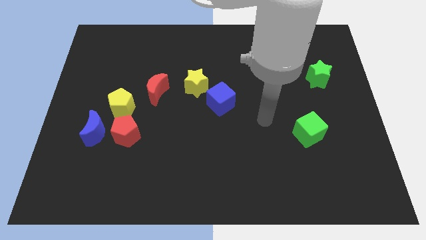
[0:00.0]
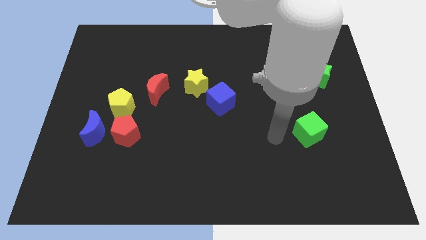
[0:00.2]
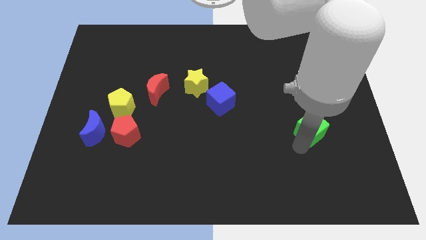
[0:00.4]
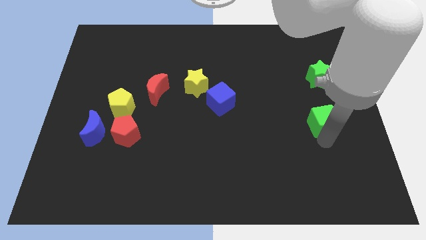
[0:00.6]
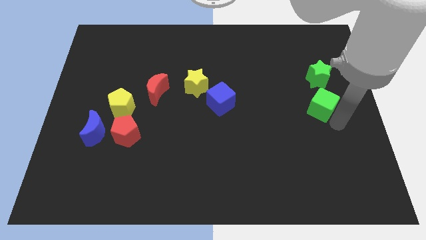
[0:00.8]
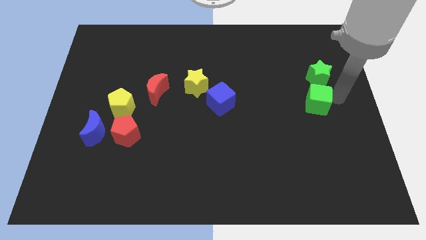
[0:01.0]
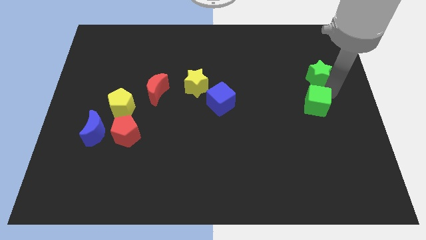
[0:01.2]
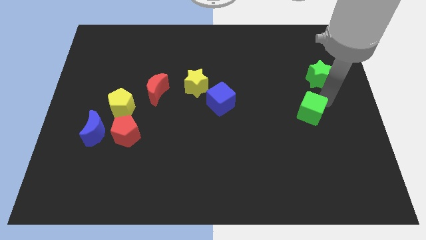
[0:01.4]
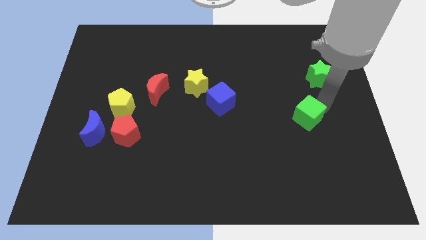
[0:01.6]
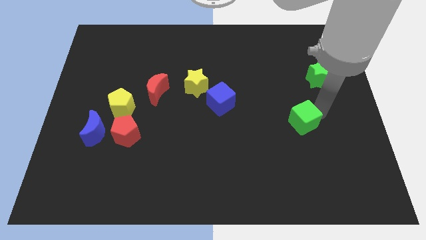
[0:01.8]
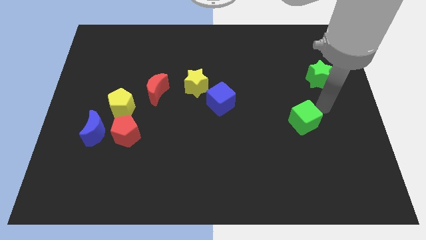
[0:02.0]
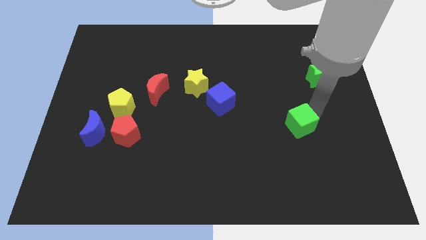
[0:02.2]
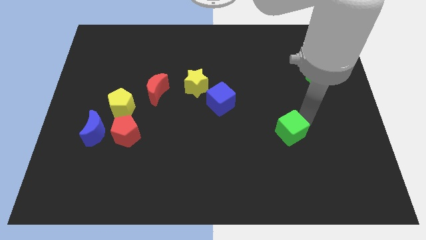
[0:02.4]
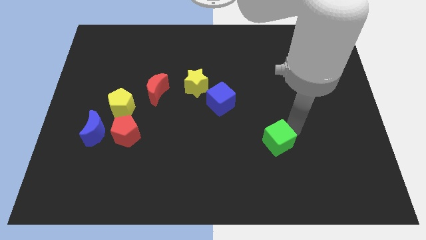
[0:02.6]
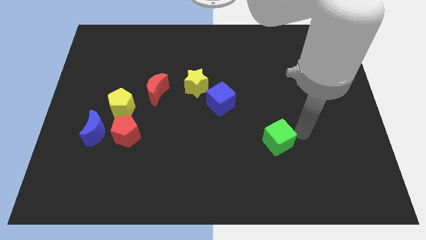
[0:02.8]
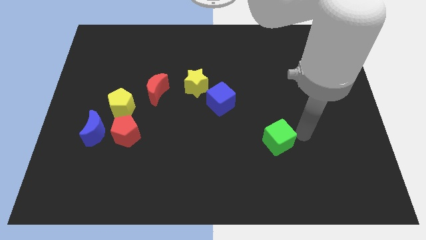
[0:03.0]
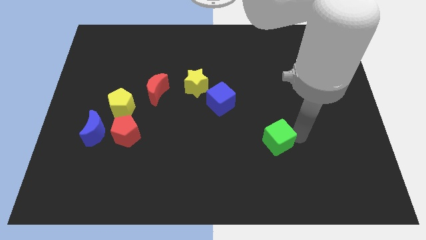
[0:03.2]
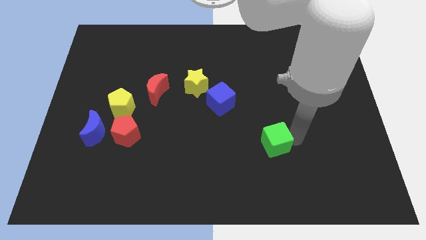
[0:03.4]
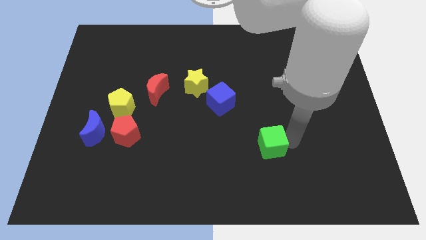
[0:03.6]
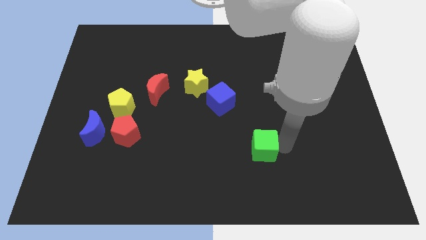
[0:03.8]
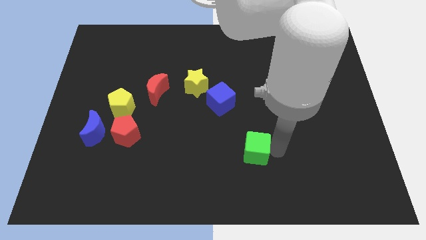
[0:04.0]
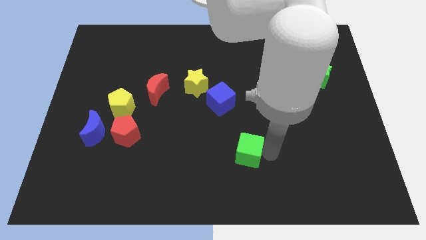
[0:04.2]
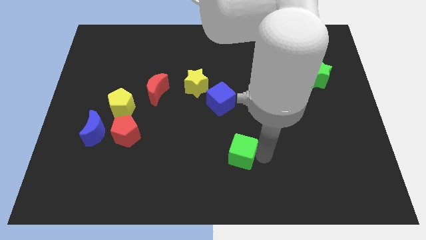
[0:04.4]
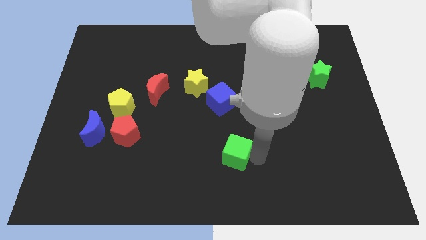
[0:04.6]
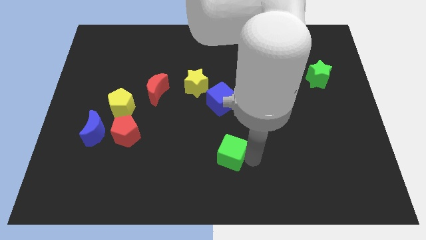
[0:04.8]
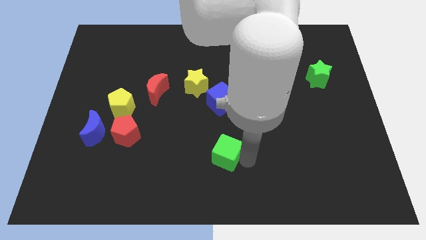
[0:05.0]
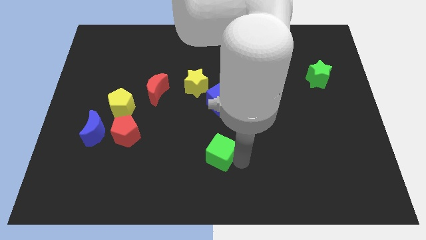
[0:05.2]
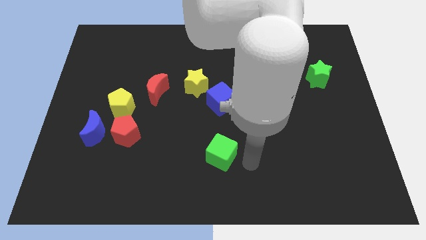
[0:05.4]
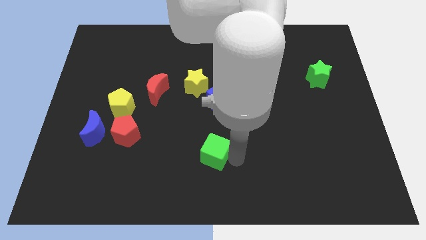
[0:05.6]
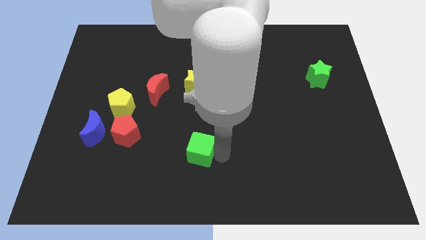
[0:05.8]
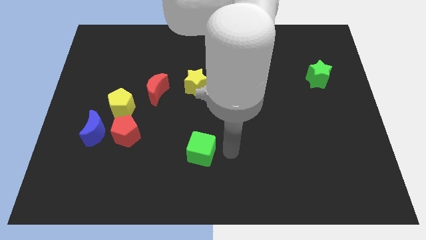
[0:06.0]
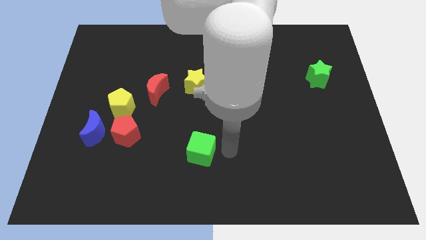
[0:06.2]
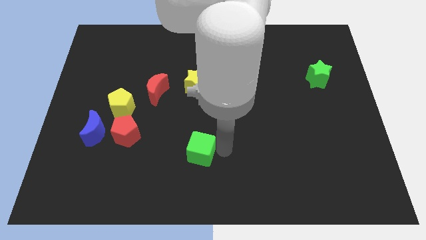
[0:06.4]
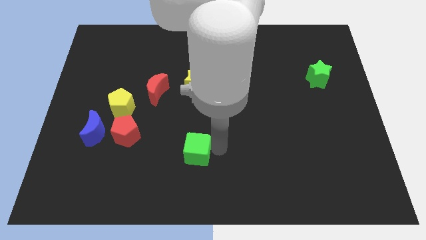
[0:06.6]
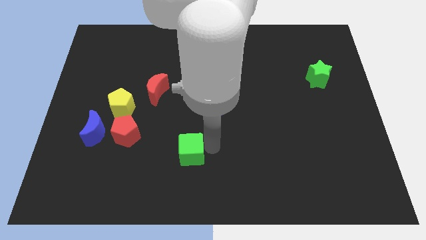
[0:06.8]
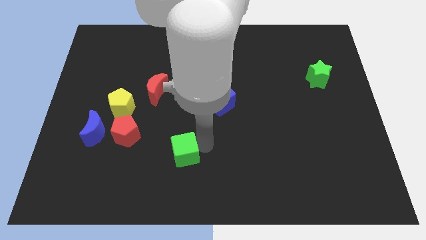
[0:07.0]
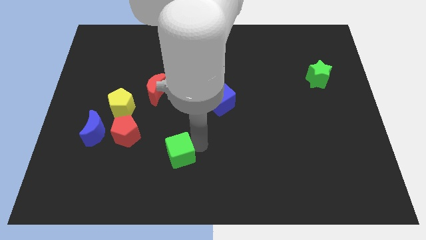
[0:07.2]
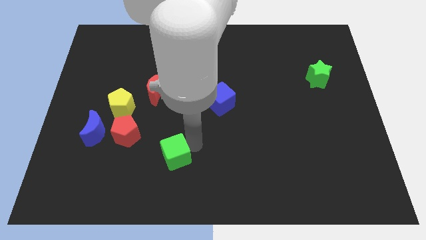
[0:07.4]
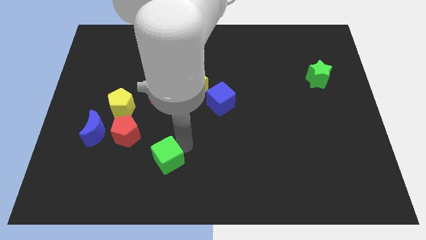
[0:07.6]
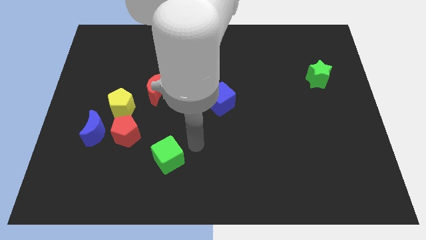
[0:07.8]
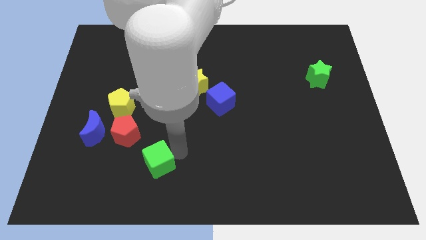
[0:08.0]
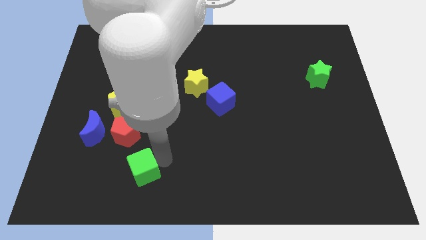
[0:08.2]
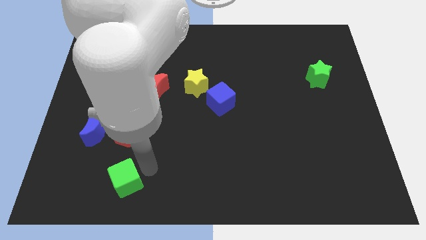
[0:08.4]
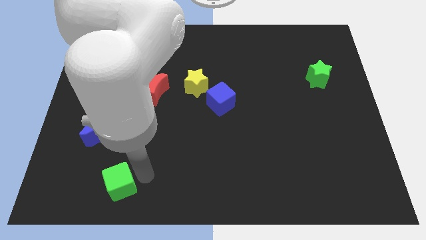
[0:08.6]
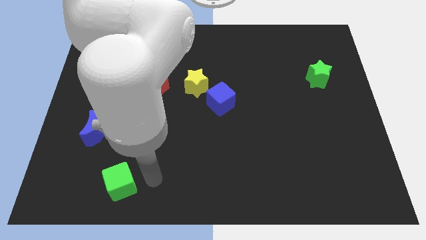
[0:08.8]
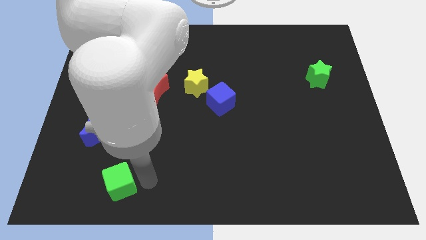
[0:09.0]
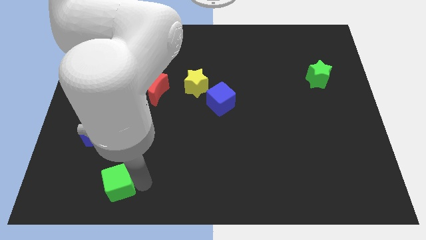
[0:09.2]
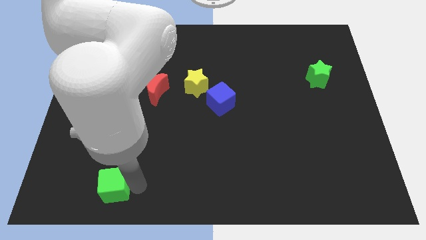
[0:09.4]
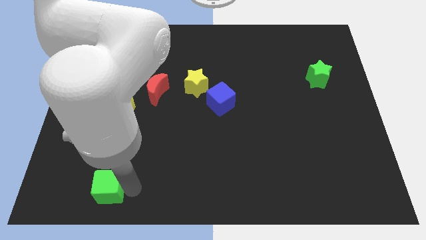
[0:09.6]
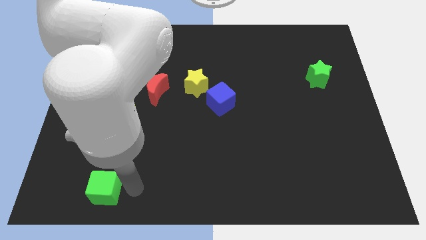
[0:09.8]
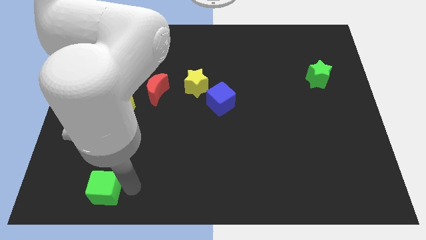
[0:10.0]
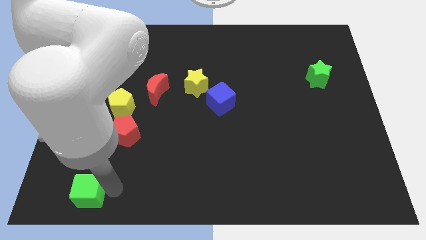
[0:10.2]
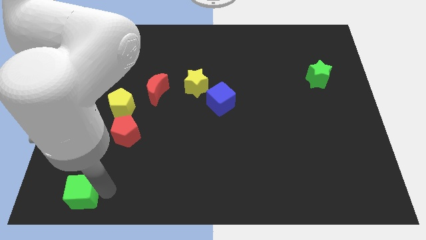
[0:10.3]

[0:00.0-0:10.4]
move the green cube to the bottom left of the board

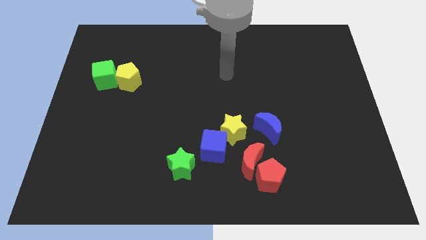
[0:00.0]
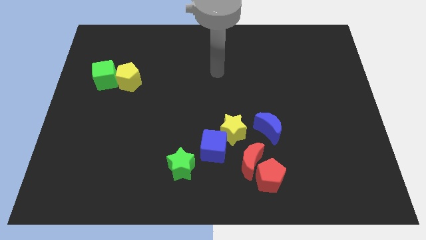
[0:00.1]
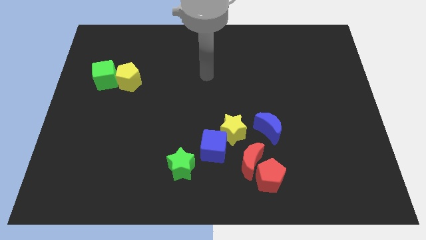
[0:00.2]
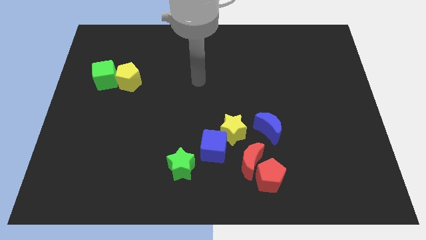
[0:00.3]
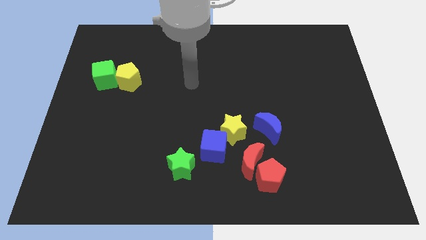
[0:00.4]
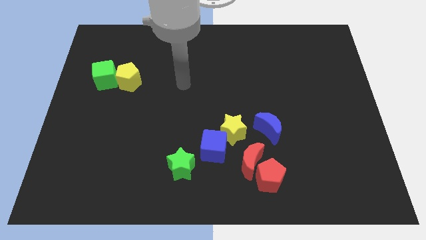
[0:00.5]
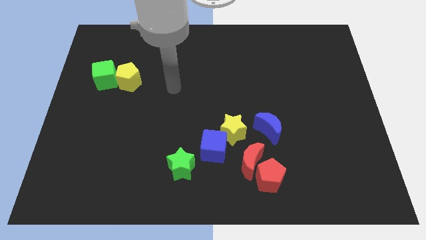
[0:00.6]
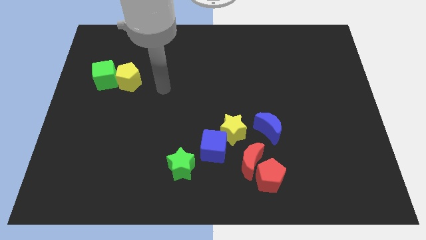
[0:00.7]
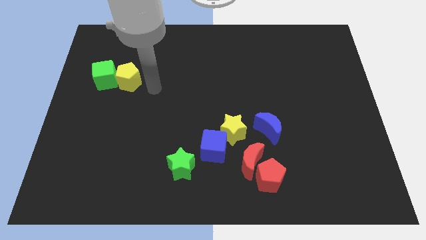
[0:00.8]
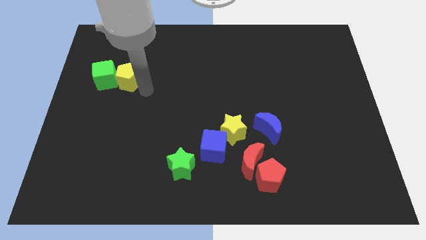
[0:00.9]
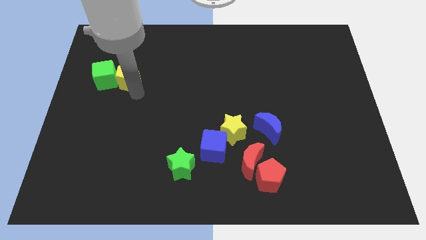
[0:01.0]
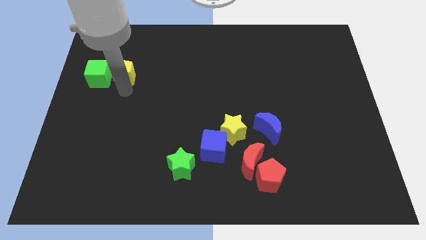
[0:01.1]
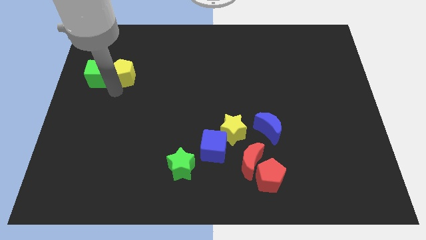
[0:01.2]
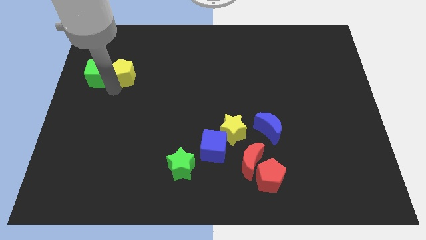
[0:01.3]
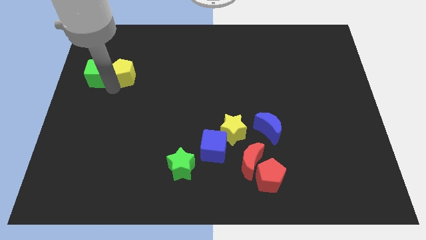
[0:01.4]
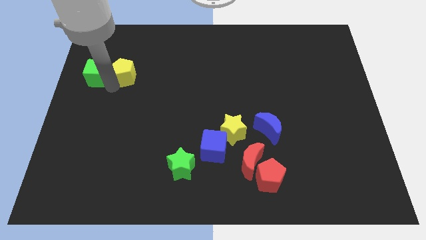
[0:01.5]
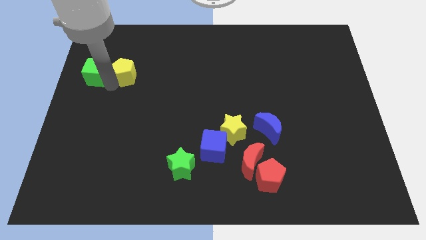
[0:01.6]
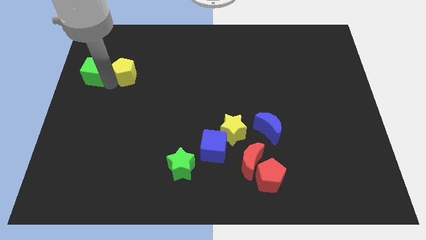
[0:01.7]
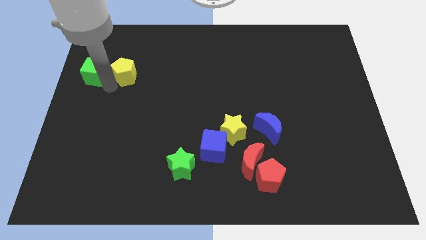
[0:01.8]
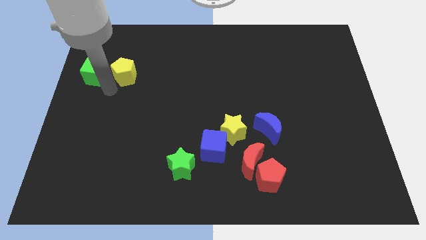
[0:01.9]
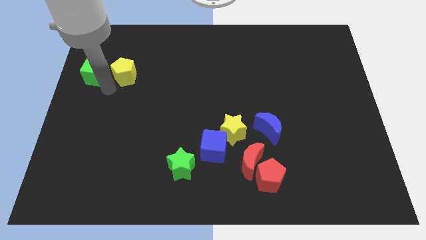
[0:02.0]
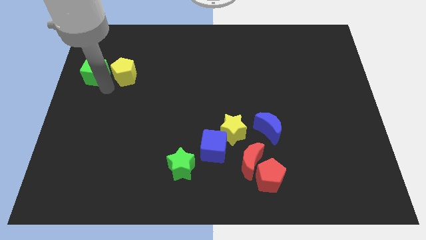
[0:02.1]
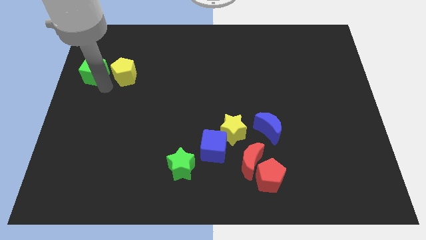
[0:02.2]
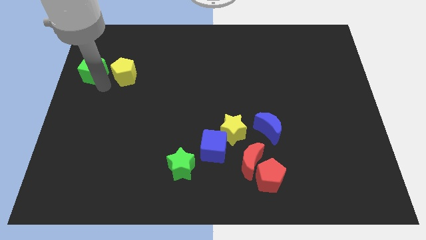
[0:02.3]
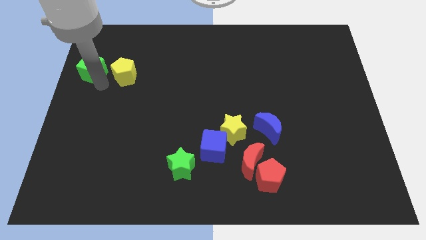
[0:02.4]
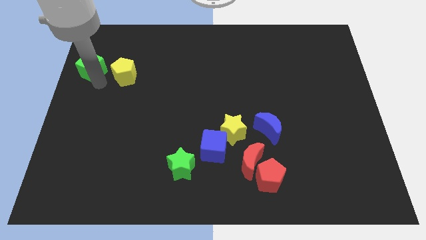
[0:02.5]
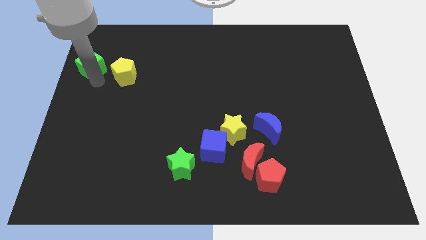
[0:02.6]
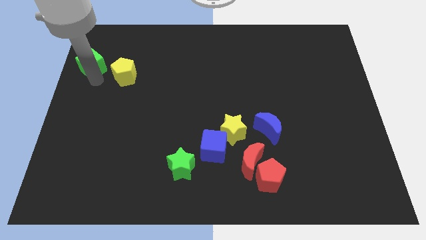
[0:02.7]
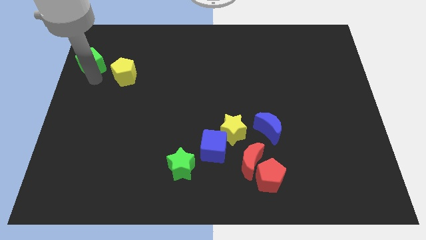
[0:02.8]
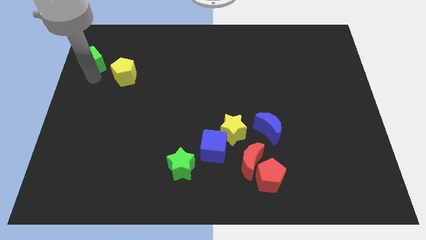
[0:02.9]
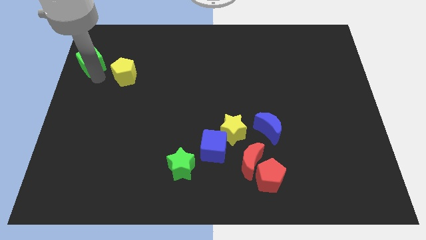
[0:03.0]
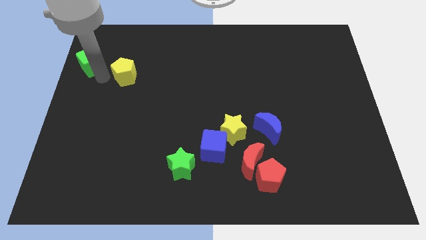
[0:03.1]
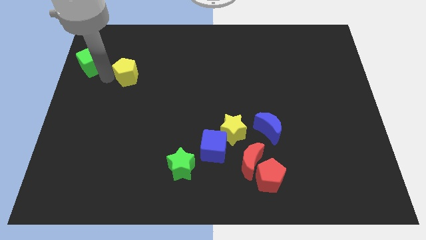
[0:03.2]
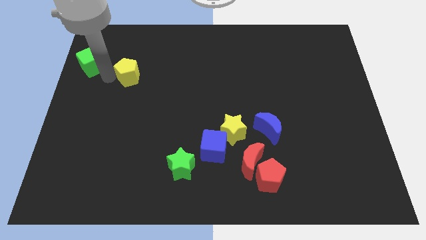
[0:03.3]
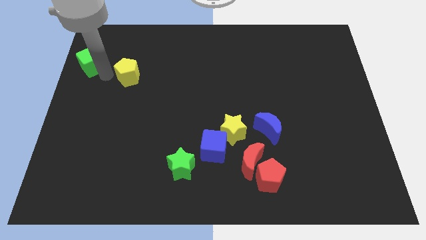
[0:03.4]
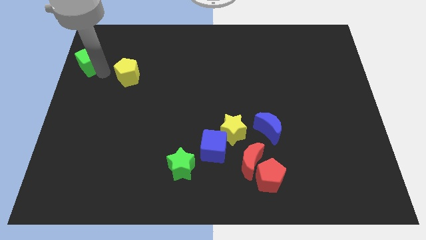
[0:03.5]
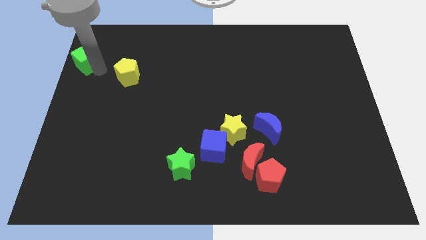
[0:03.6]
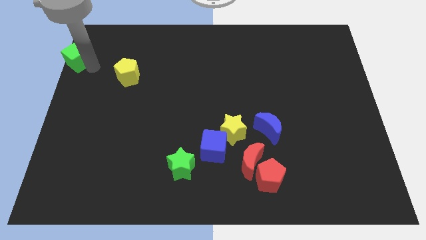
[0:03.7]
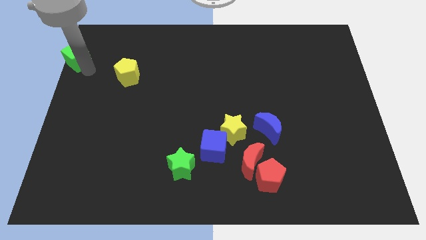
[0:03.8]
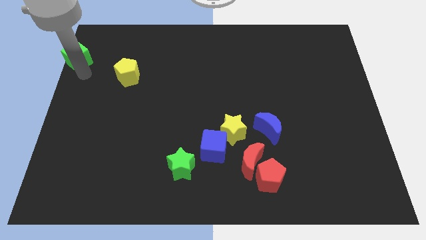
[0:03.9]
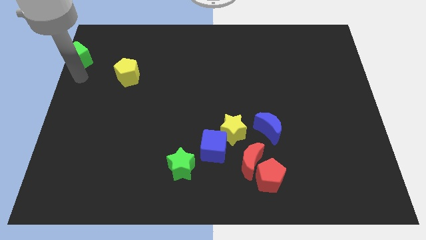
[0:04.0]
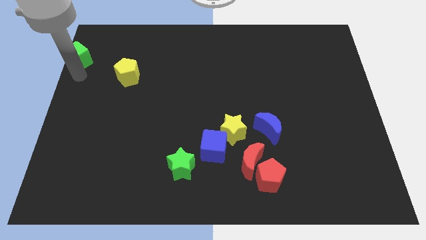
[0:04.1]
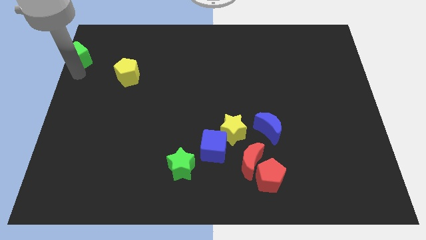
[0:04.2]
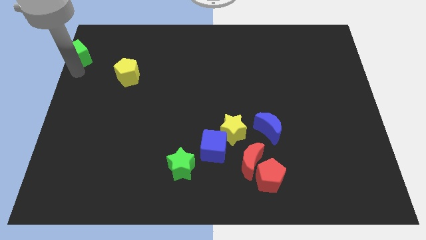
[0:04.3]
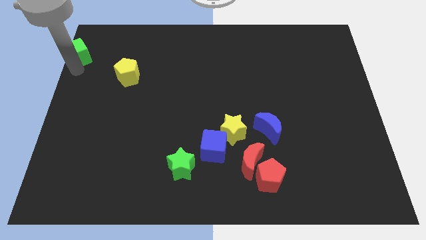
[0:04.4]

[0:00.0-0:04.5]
slide the green cube to the top left
